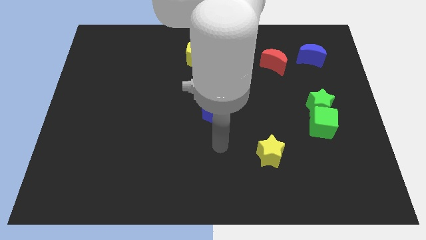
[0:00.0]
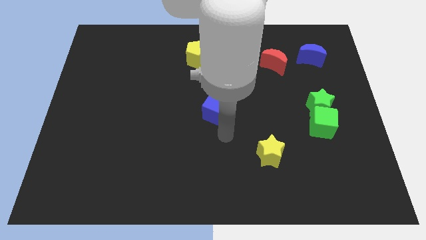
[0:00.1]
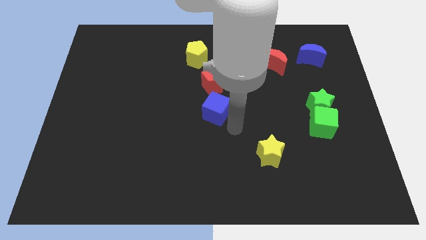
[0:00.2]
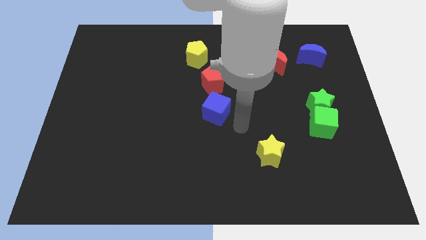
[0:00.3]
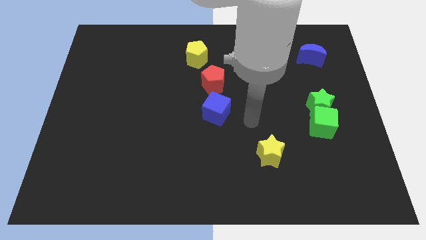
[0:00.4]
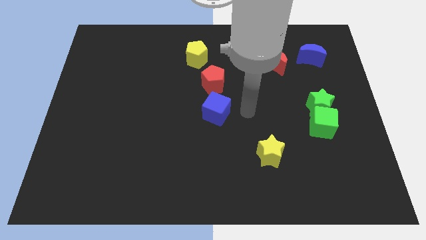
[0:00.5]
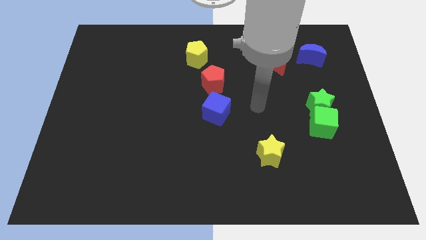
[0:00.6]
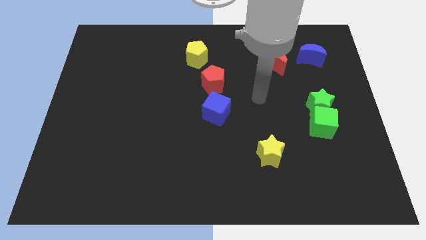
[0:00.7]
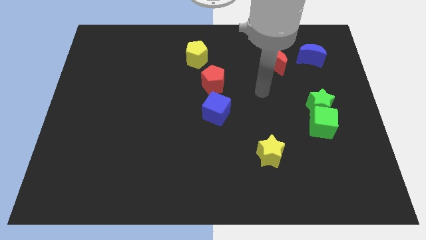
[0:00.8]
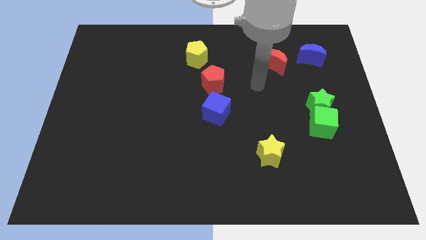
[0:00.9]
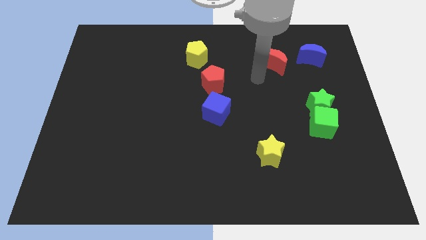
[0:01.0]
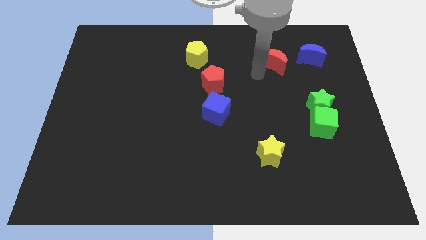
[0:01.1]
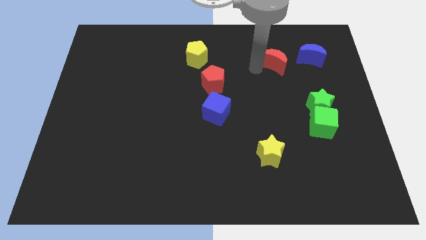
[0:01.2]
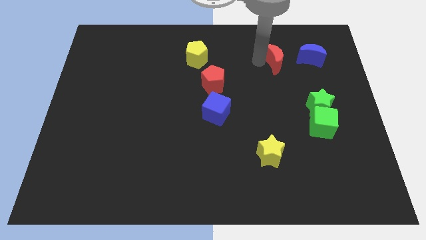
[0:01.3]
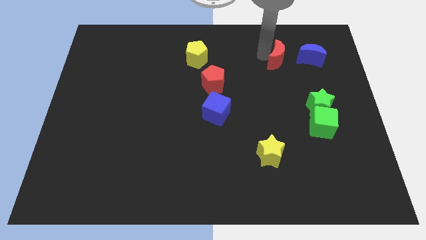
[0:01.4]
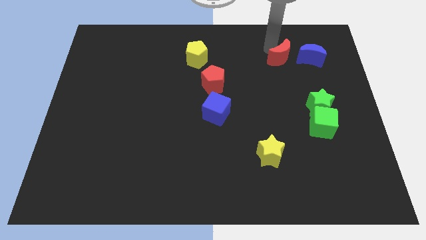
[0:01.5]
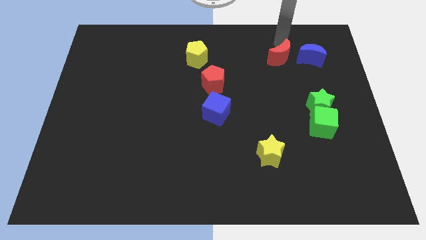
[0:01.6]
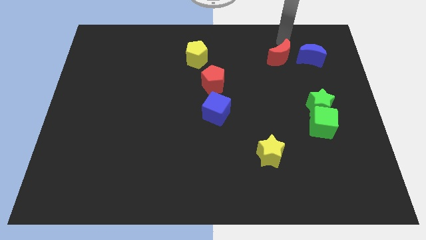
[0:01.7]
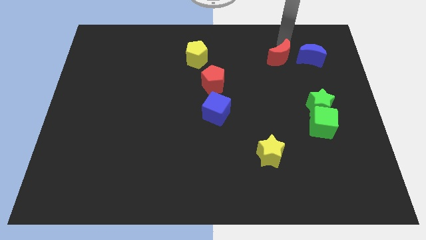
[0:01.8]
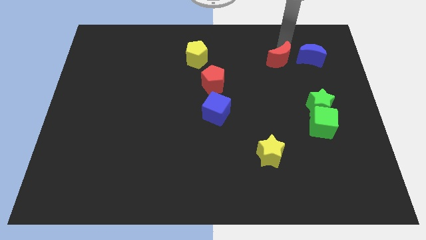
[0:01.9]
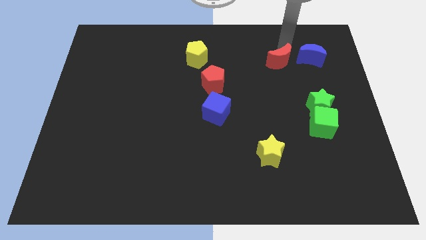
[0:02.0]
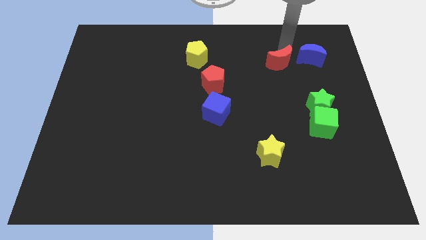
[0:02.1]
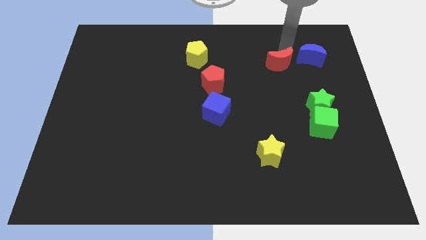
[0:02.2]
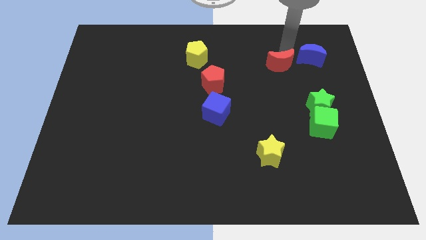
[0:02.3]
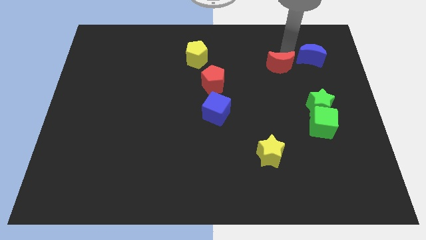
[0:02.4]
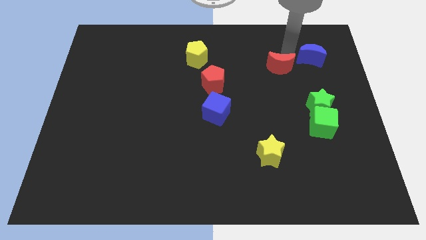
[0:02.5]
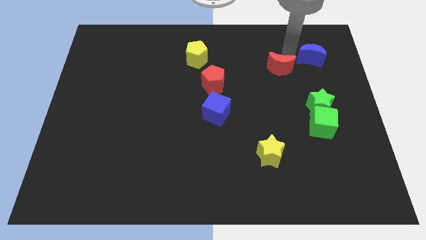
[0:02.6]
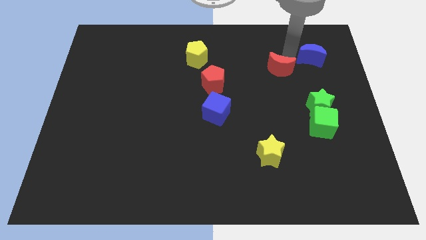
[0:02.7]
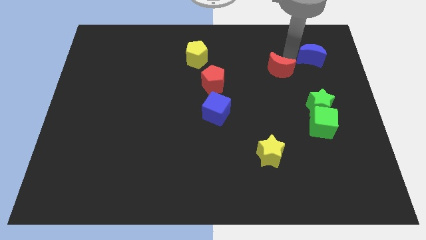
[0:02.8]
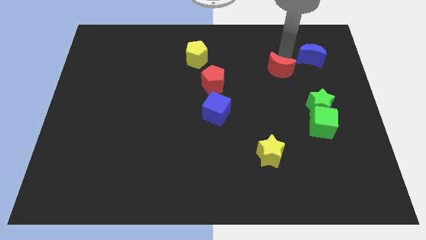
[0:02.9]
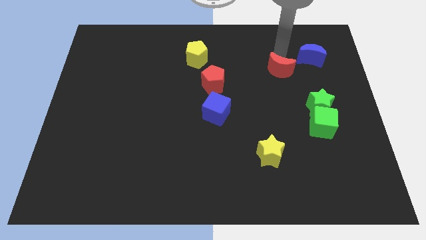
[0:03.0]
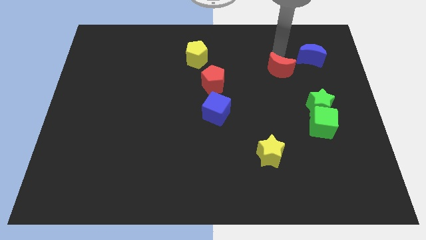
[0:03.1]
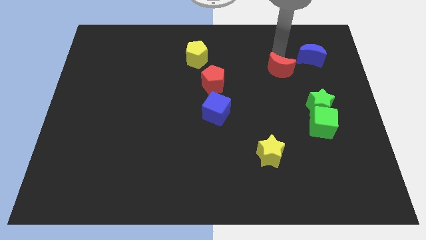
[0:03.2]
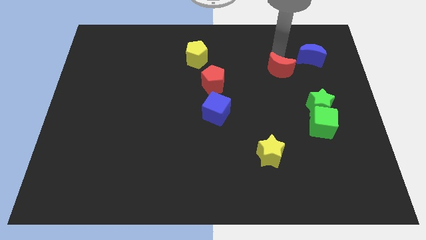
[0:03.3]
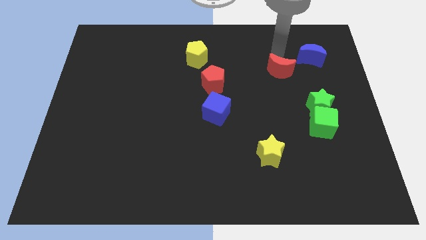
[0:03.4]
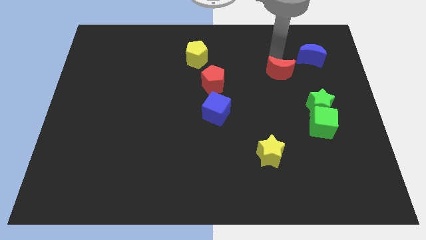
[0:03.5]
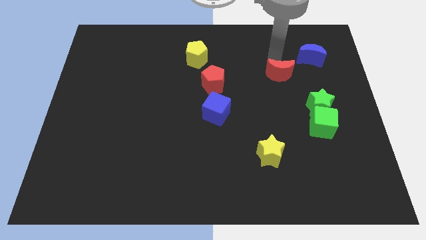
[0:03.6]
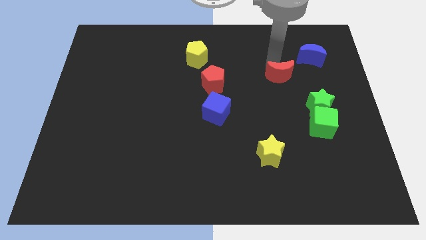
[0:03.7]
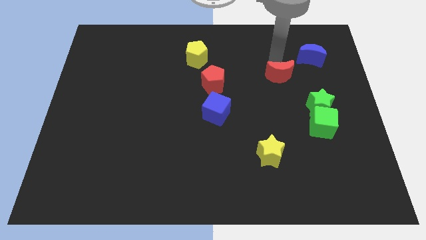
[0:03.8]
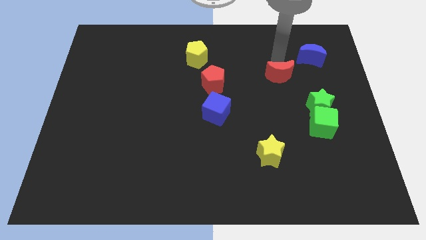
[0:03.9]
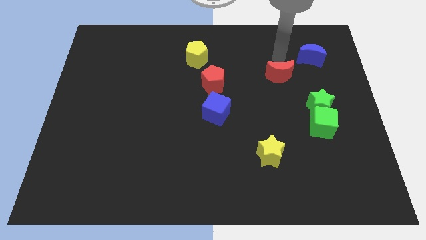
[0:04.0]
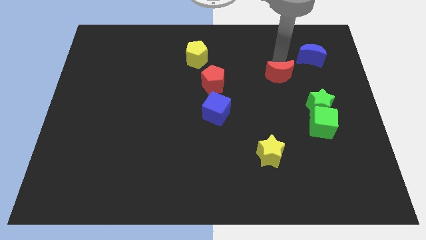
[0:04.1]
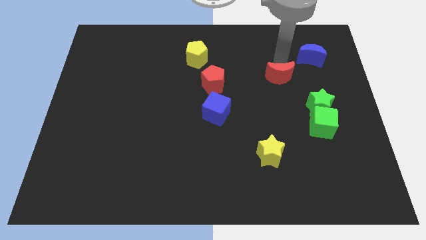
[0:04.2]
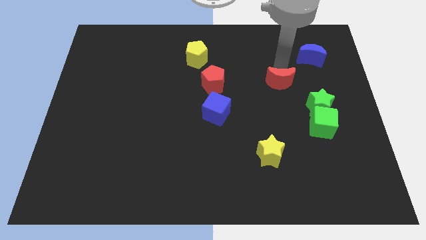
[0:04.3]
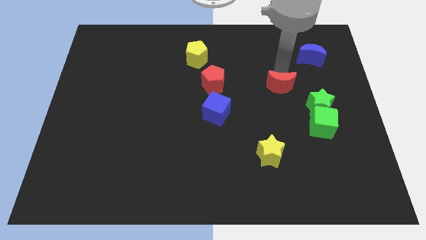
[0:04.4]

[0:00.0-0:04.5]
push the red moon downwards slightly

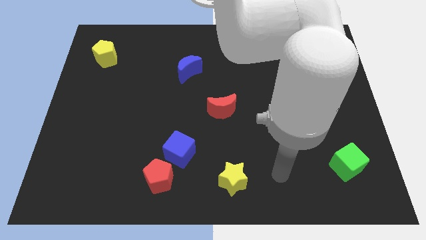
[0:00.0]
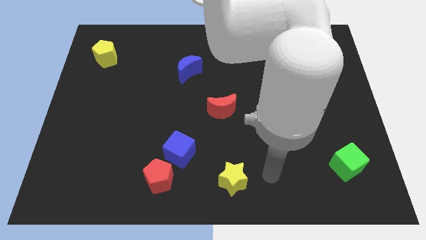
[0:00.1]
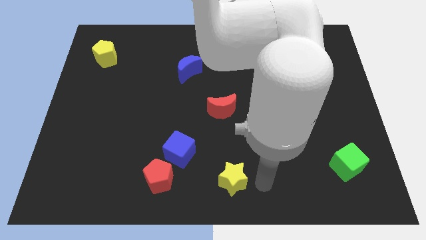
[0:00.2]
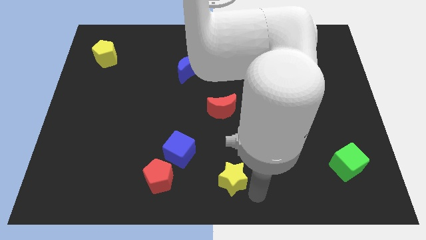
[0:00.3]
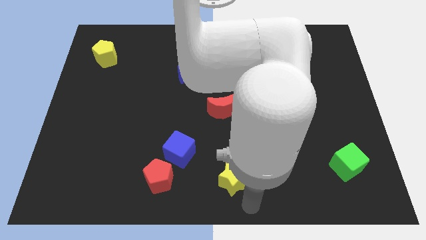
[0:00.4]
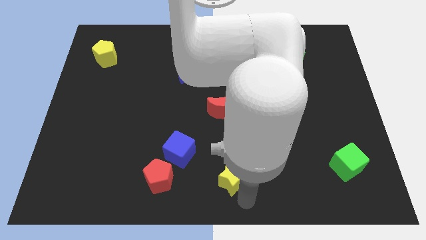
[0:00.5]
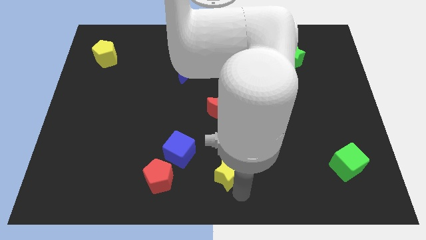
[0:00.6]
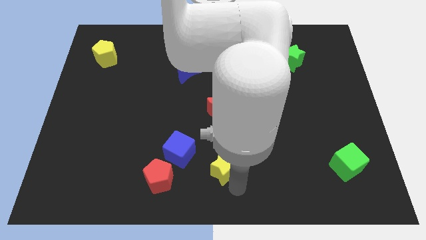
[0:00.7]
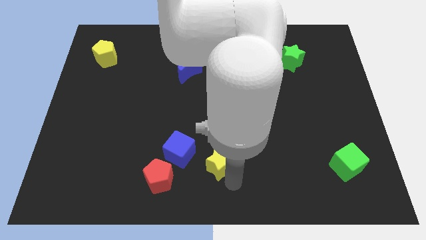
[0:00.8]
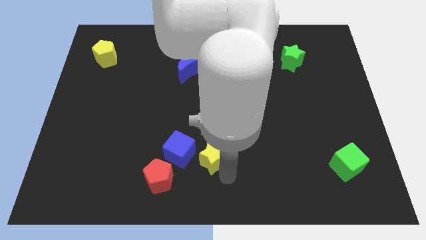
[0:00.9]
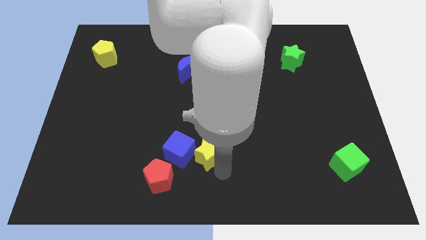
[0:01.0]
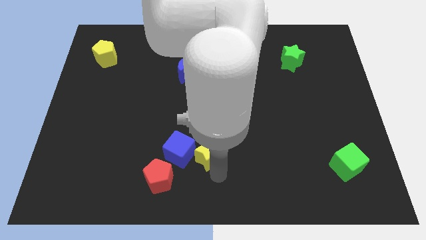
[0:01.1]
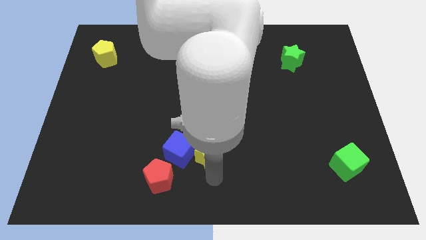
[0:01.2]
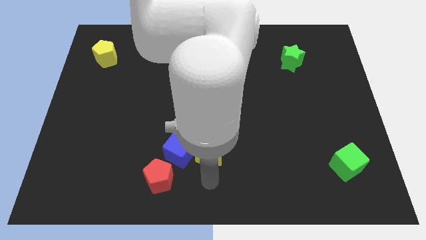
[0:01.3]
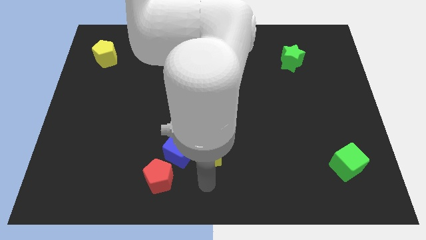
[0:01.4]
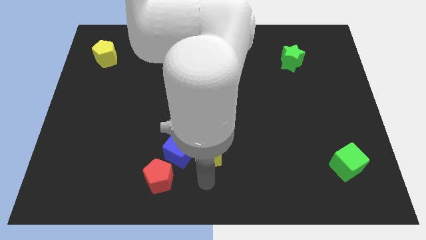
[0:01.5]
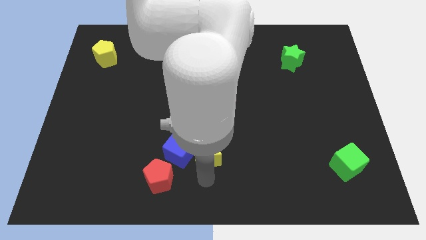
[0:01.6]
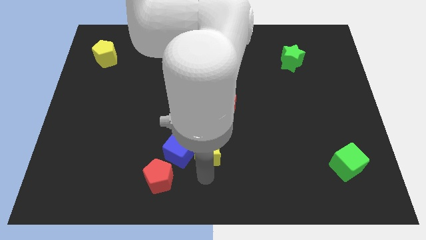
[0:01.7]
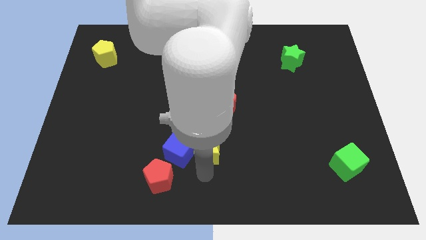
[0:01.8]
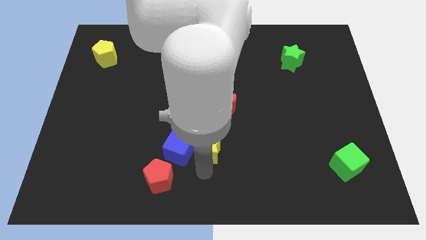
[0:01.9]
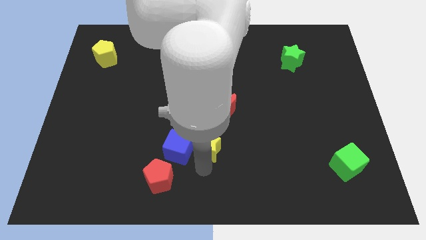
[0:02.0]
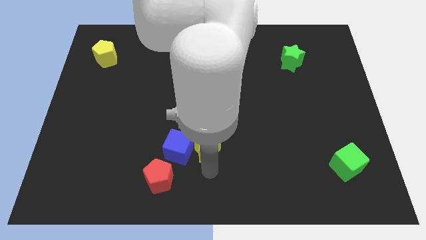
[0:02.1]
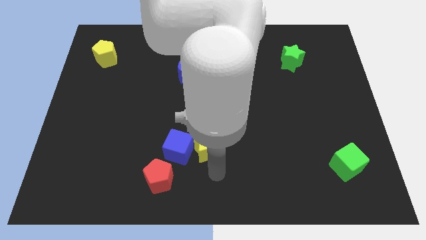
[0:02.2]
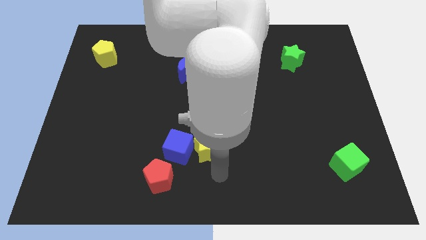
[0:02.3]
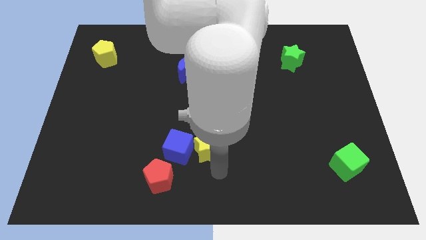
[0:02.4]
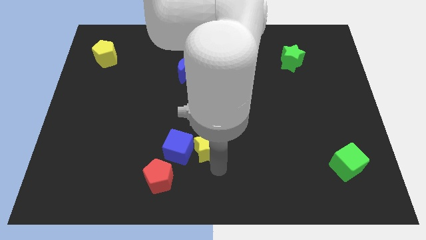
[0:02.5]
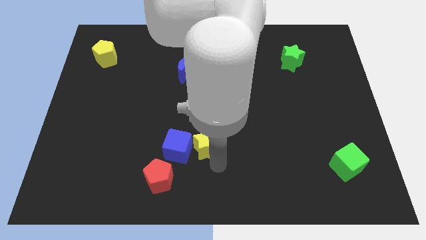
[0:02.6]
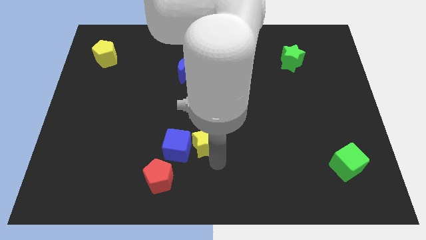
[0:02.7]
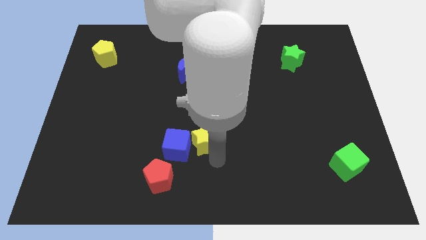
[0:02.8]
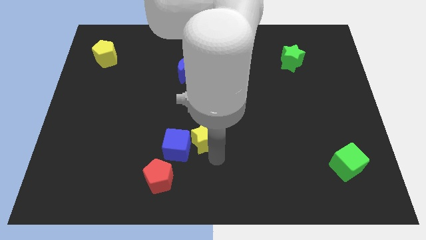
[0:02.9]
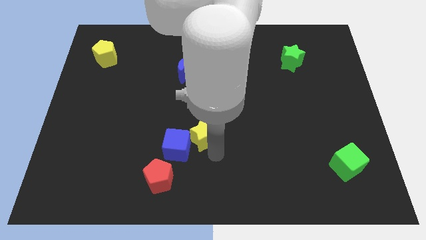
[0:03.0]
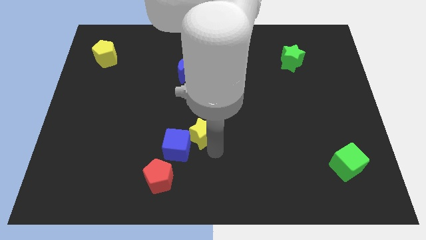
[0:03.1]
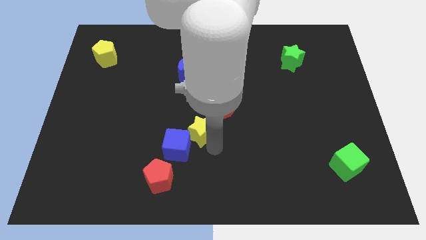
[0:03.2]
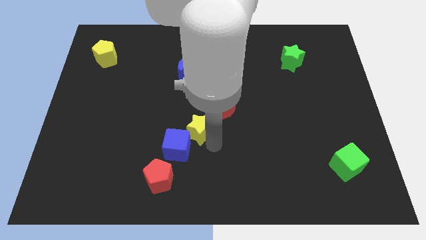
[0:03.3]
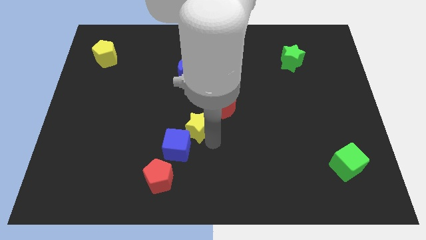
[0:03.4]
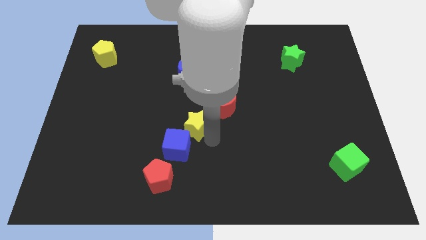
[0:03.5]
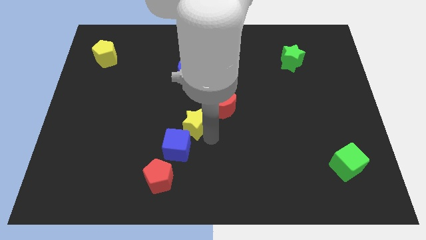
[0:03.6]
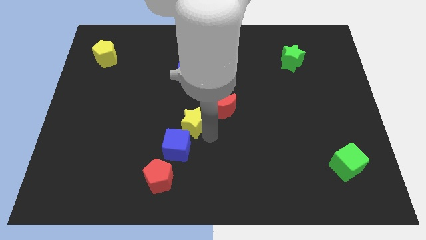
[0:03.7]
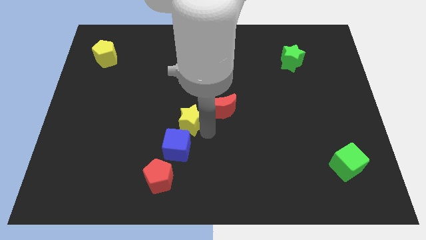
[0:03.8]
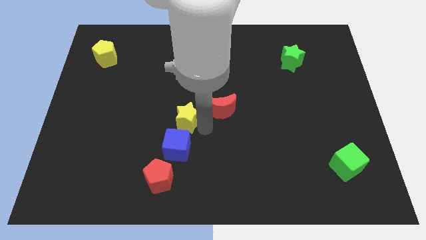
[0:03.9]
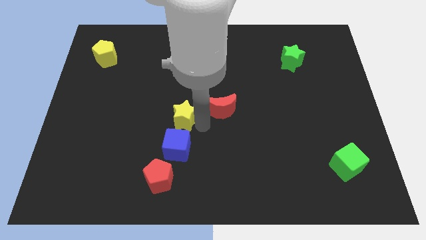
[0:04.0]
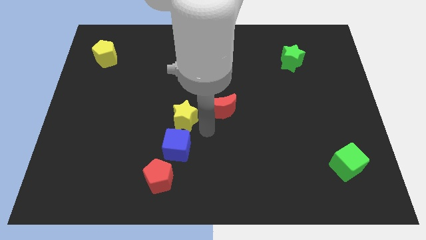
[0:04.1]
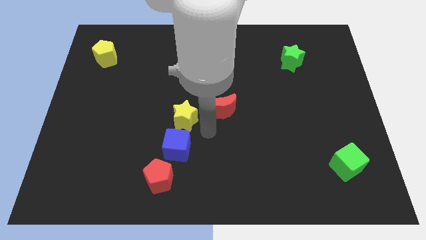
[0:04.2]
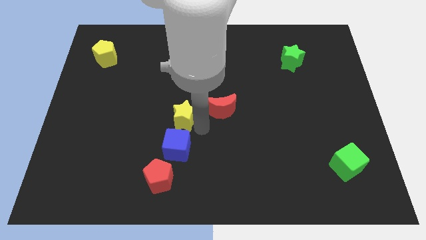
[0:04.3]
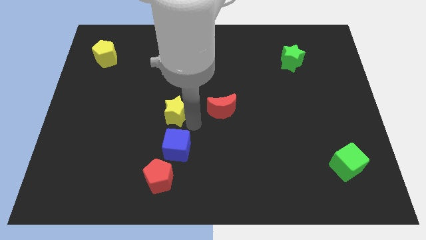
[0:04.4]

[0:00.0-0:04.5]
slide the yellow star up and to the left diagonally
